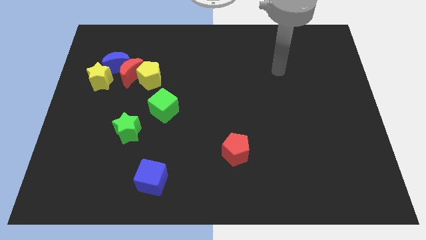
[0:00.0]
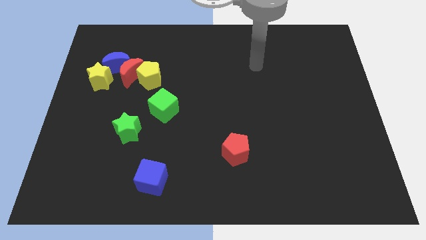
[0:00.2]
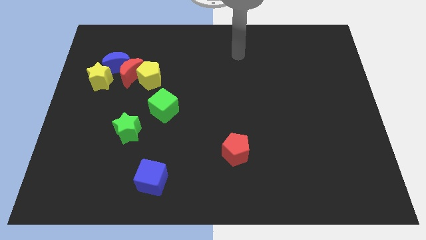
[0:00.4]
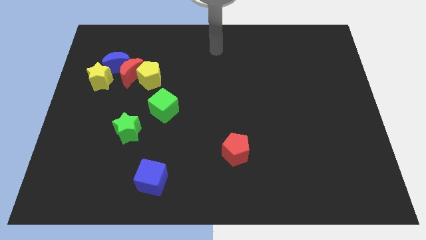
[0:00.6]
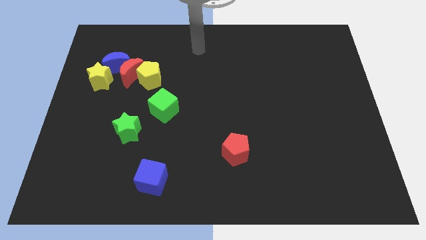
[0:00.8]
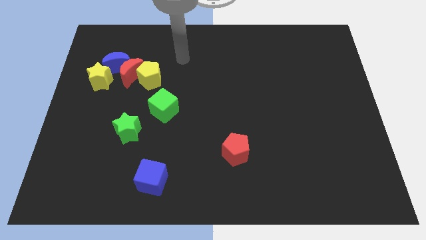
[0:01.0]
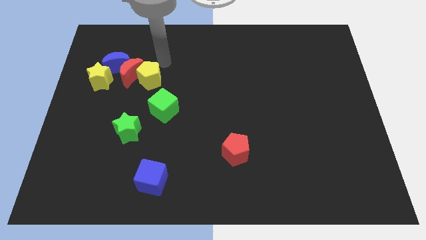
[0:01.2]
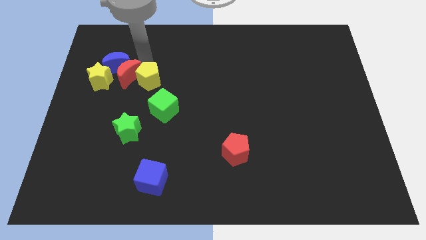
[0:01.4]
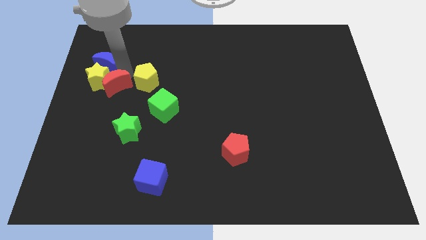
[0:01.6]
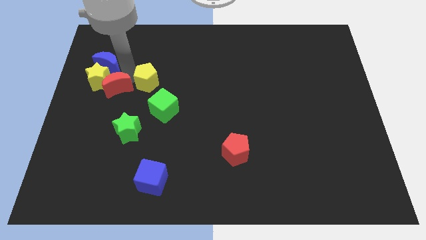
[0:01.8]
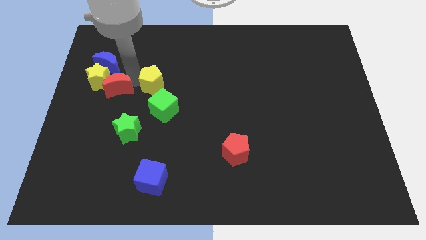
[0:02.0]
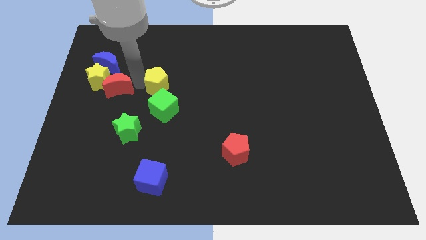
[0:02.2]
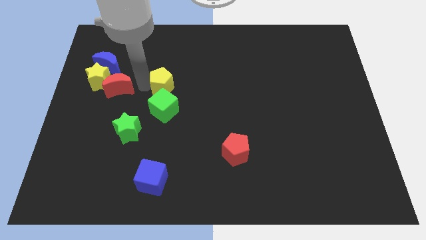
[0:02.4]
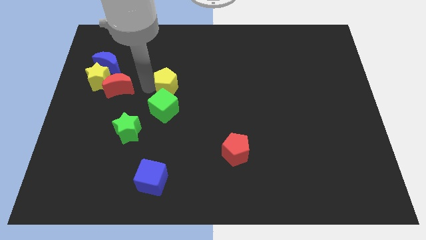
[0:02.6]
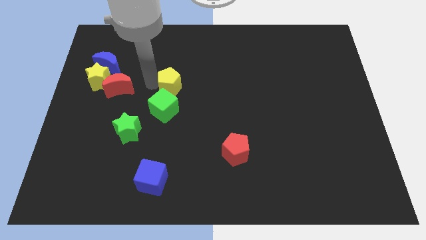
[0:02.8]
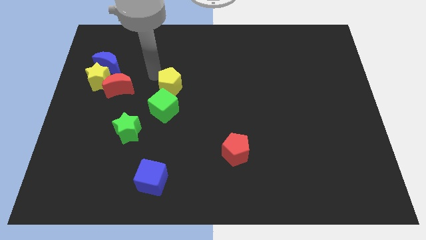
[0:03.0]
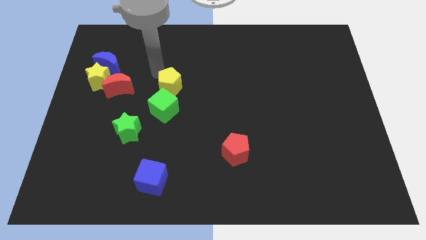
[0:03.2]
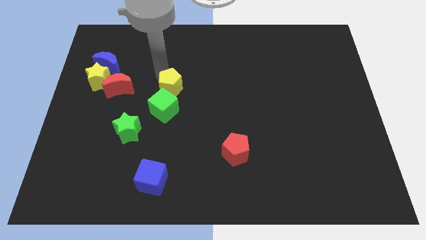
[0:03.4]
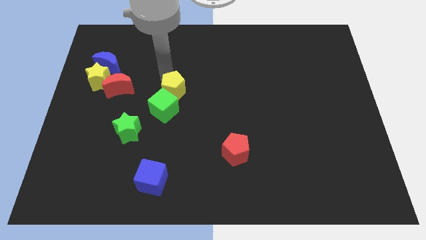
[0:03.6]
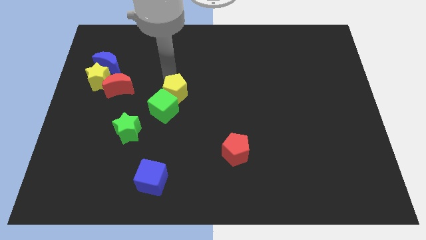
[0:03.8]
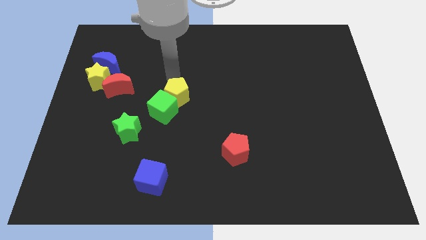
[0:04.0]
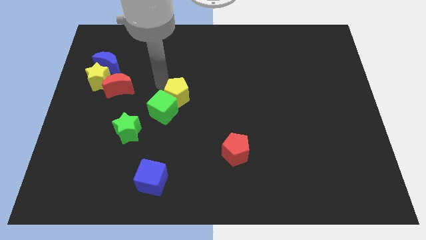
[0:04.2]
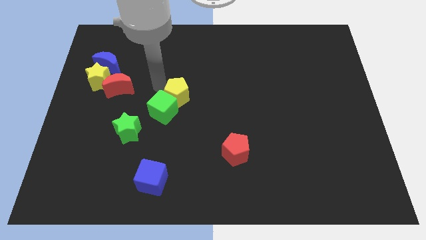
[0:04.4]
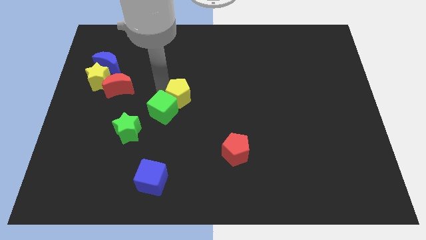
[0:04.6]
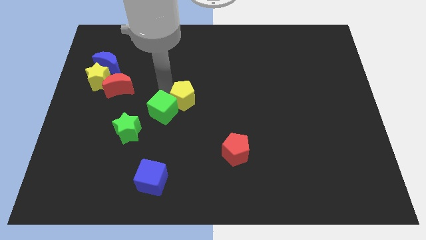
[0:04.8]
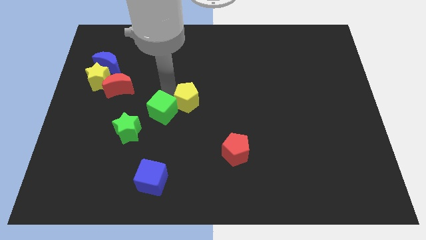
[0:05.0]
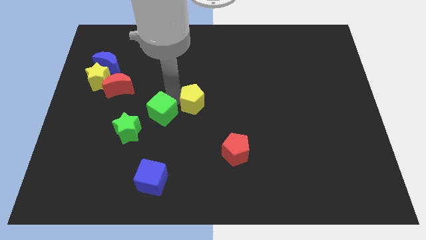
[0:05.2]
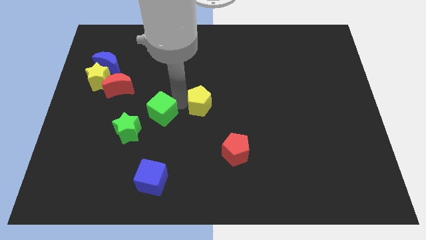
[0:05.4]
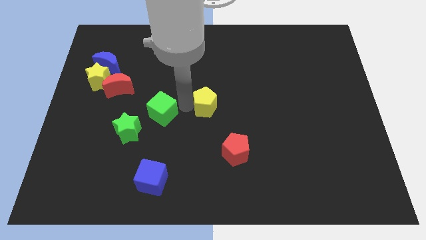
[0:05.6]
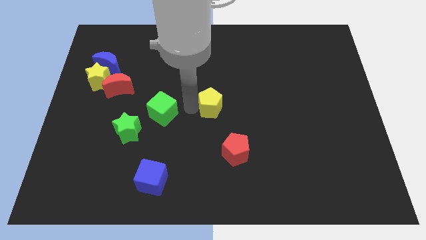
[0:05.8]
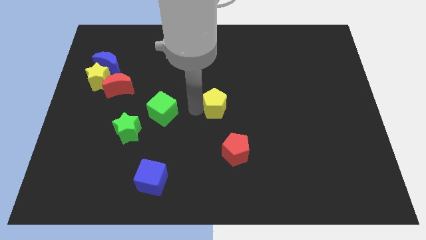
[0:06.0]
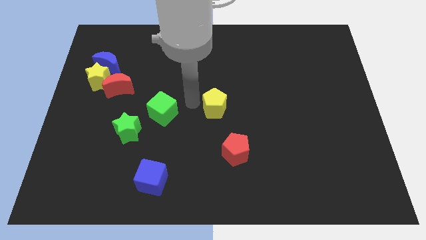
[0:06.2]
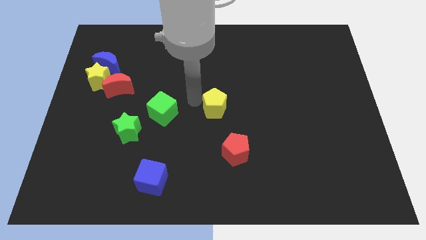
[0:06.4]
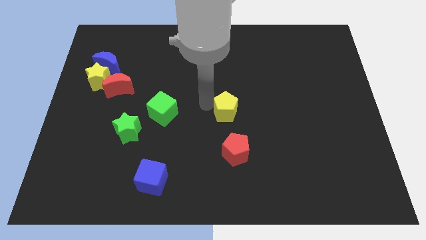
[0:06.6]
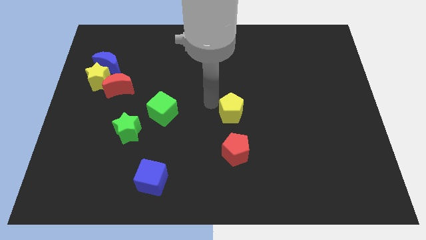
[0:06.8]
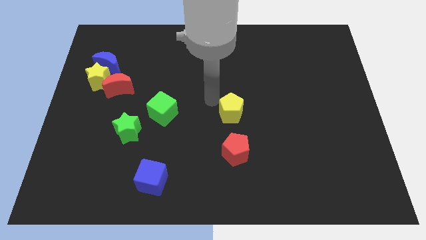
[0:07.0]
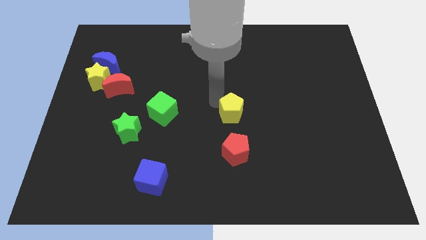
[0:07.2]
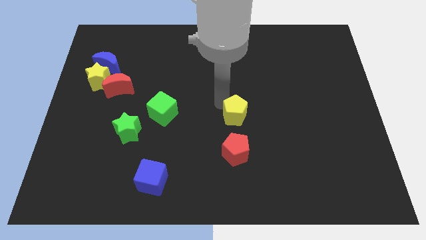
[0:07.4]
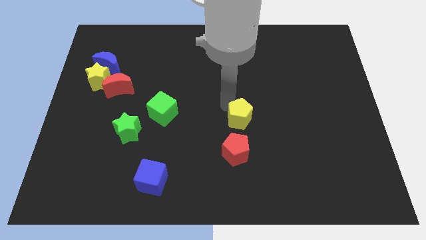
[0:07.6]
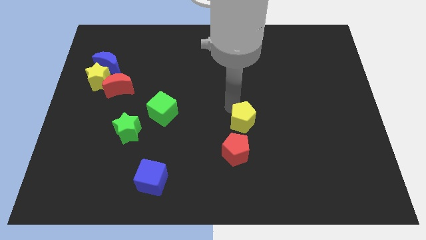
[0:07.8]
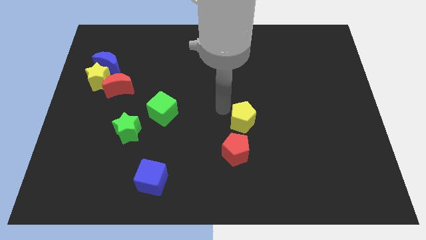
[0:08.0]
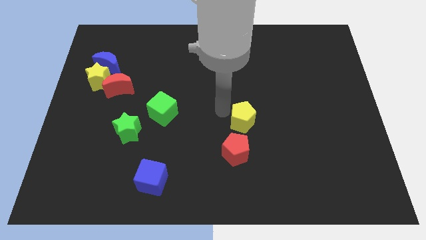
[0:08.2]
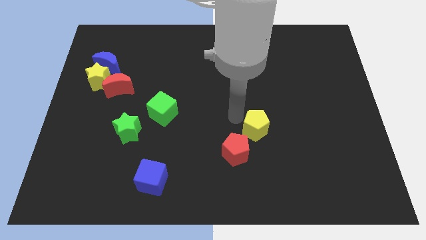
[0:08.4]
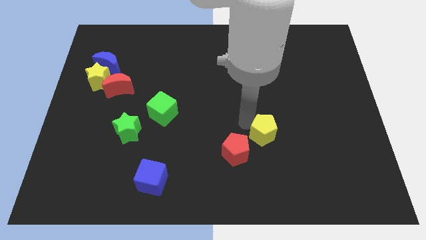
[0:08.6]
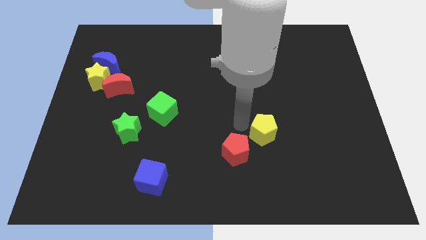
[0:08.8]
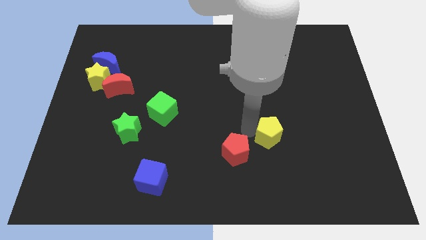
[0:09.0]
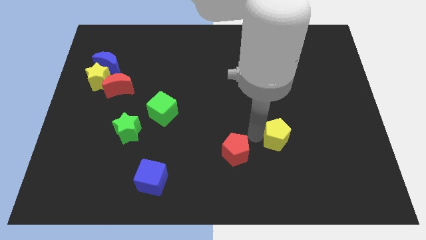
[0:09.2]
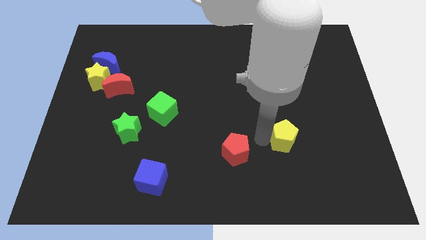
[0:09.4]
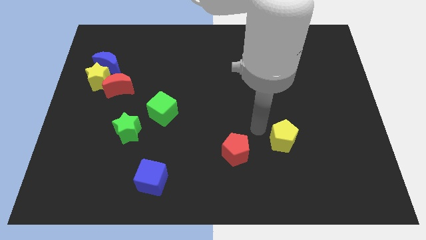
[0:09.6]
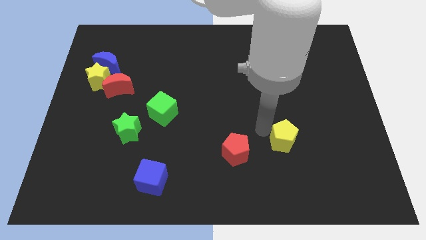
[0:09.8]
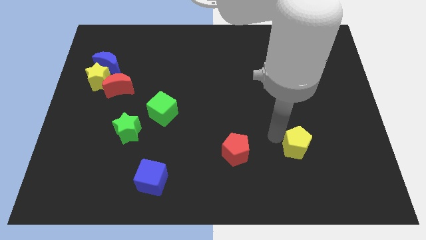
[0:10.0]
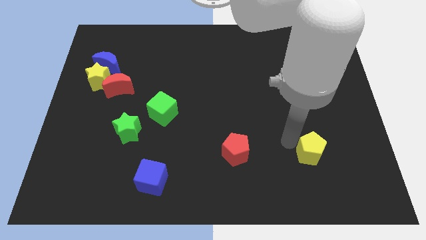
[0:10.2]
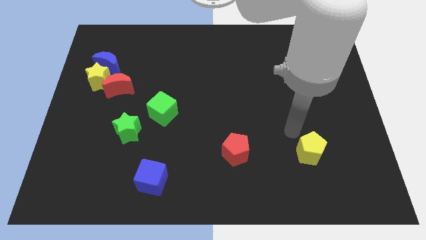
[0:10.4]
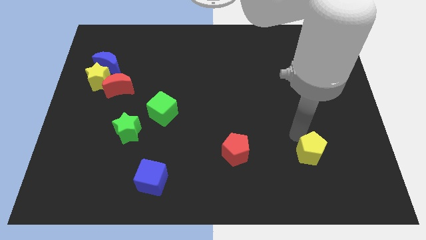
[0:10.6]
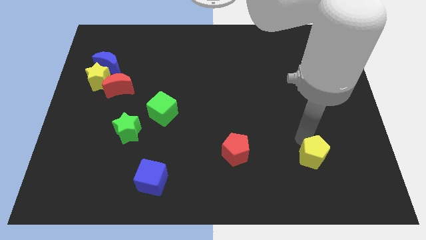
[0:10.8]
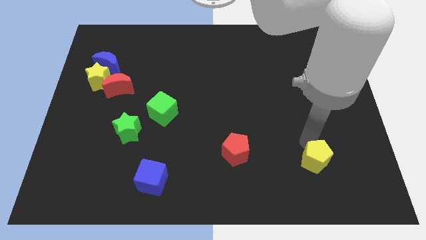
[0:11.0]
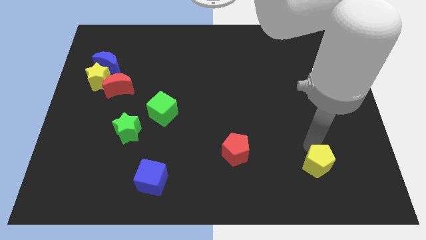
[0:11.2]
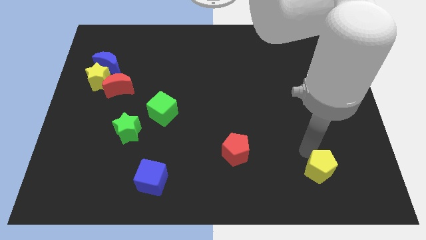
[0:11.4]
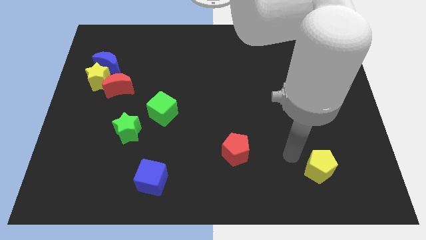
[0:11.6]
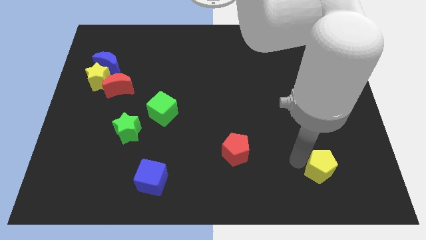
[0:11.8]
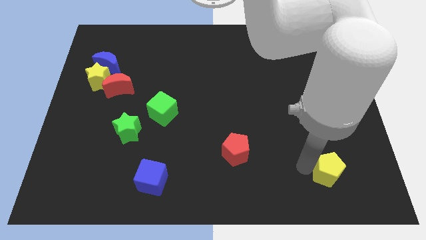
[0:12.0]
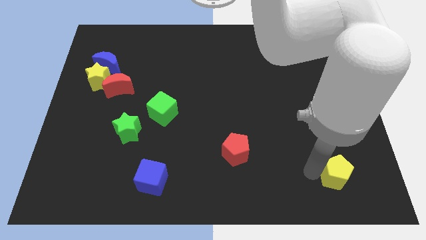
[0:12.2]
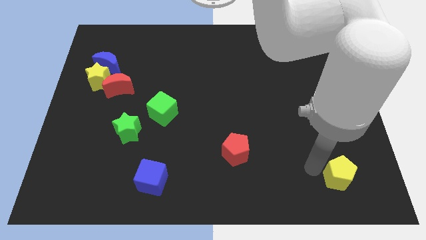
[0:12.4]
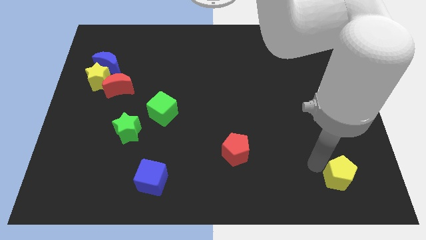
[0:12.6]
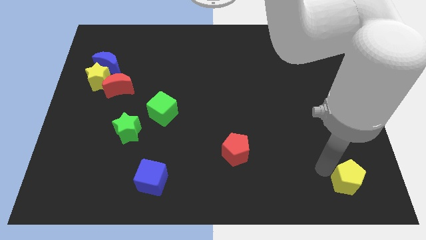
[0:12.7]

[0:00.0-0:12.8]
slide the yellow pentagon to the lower right corner
